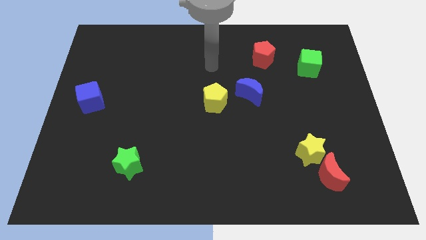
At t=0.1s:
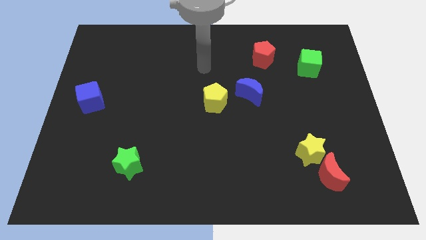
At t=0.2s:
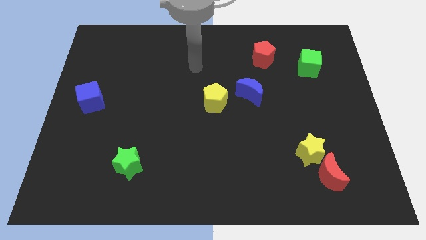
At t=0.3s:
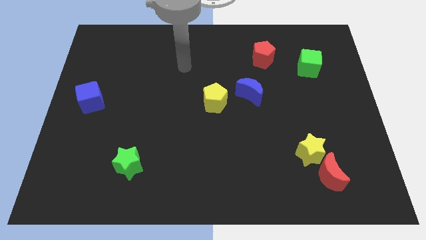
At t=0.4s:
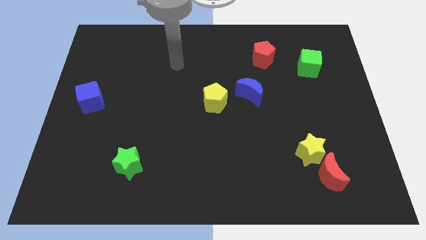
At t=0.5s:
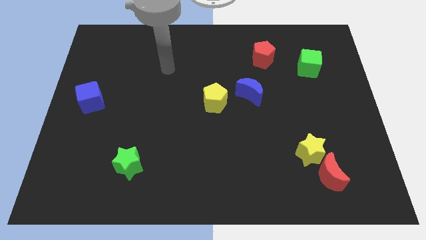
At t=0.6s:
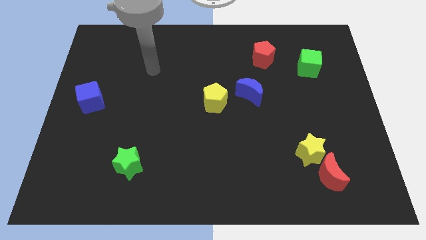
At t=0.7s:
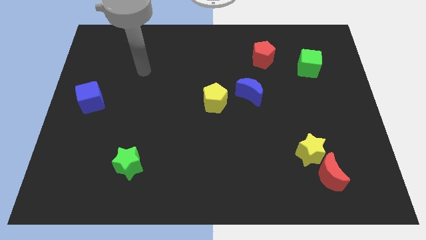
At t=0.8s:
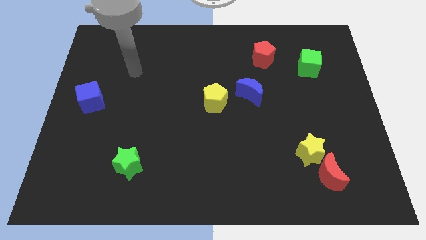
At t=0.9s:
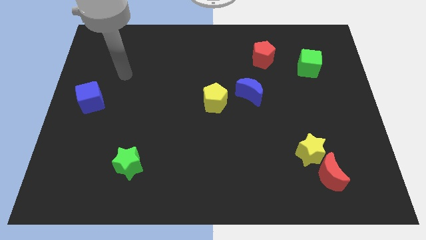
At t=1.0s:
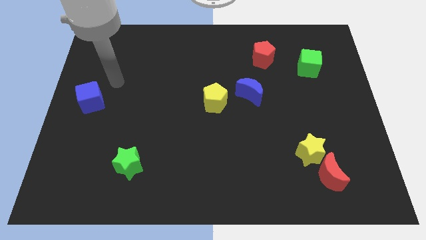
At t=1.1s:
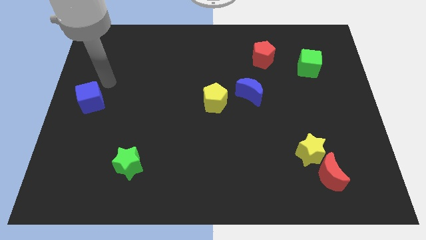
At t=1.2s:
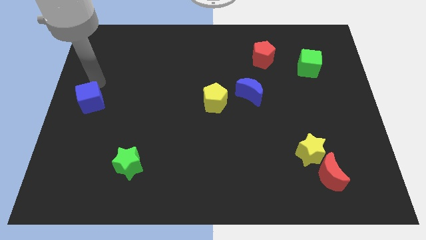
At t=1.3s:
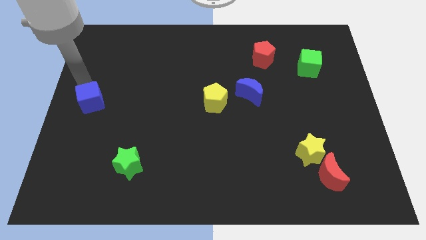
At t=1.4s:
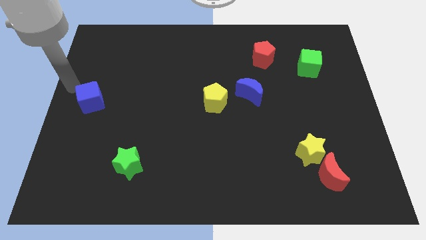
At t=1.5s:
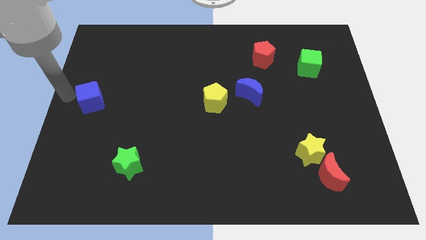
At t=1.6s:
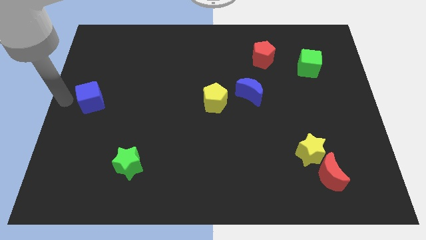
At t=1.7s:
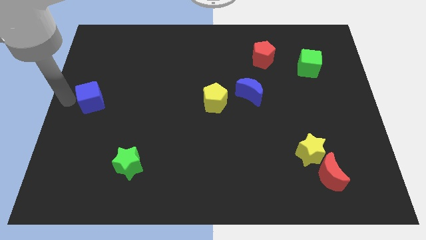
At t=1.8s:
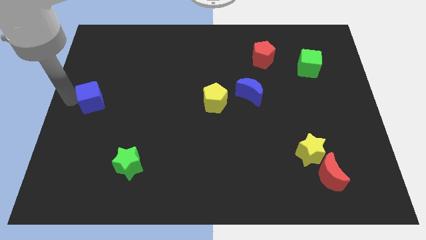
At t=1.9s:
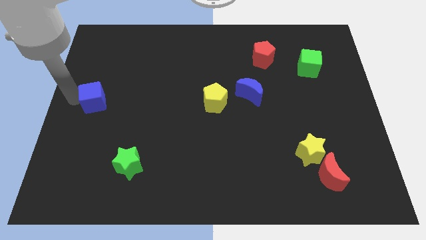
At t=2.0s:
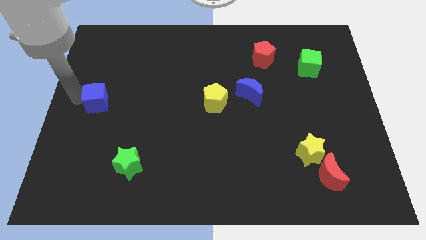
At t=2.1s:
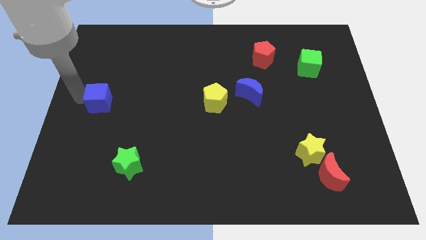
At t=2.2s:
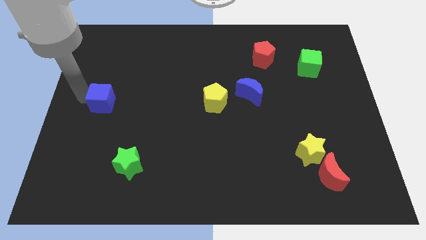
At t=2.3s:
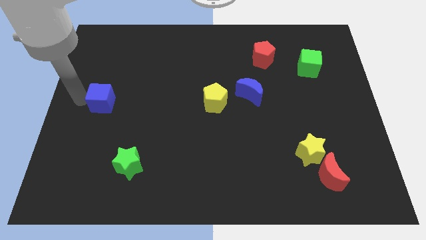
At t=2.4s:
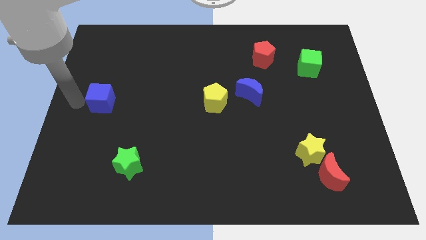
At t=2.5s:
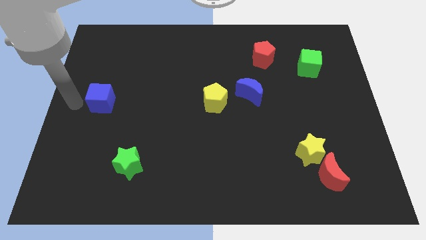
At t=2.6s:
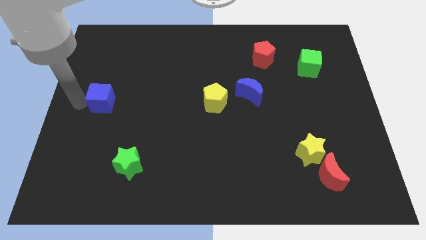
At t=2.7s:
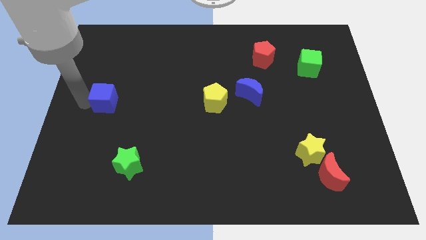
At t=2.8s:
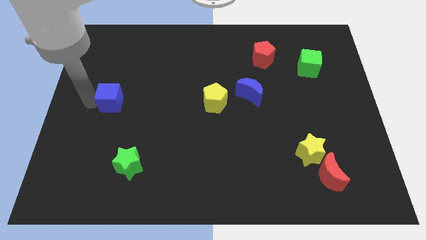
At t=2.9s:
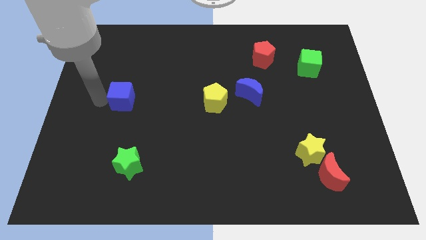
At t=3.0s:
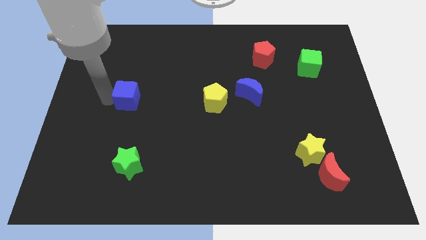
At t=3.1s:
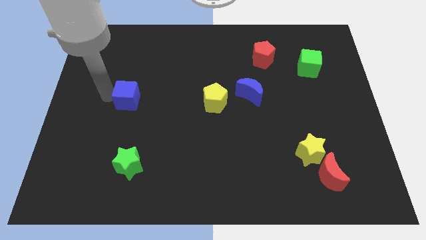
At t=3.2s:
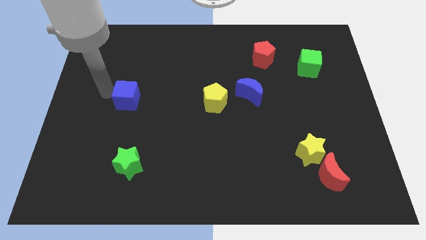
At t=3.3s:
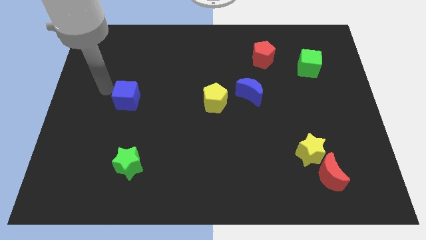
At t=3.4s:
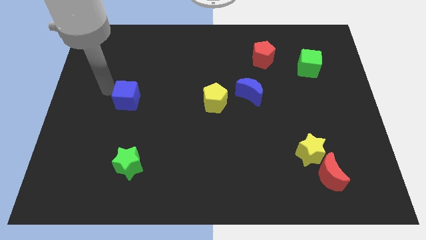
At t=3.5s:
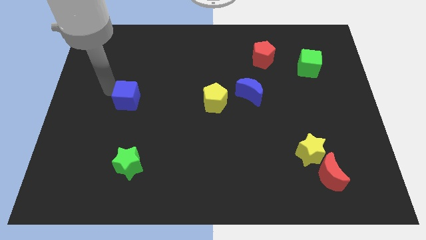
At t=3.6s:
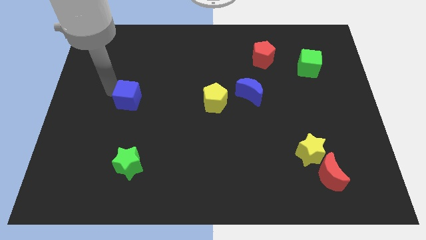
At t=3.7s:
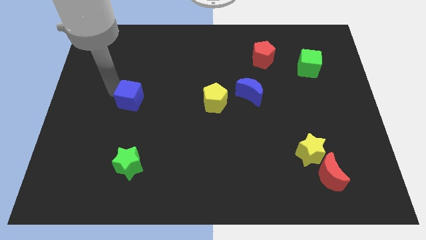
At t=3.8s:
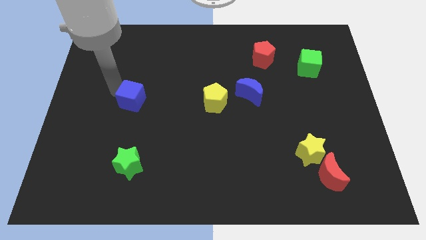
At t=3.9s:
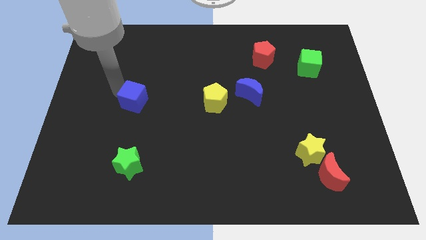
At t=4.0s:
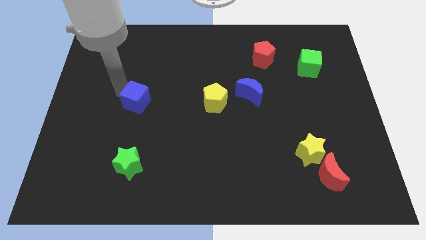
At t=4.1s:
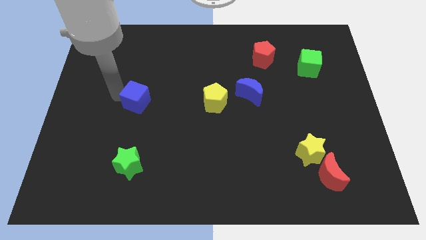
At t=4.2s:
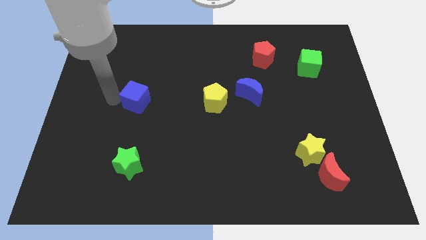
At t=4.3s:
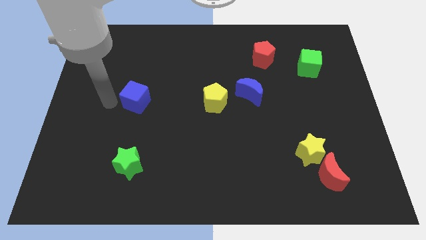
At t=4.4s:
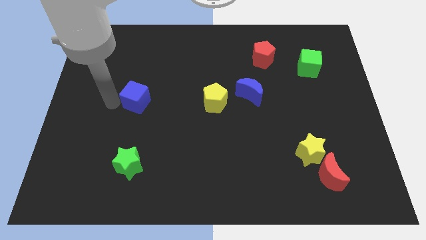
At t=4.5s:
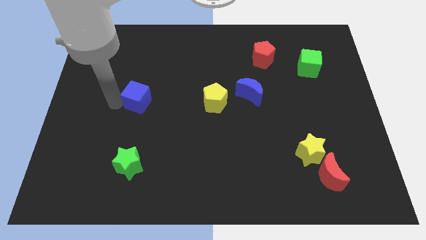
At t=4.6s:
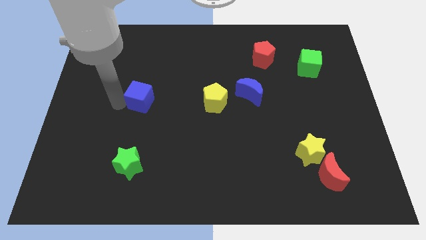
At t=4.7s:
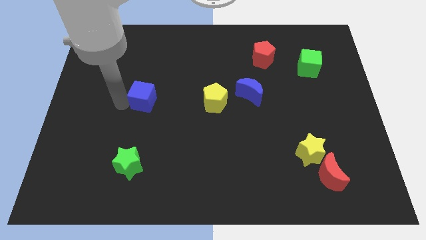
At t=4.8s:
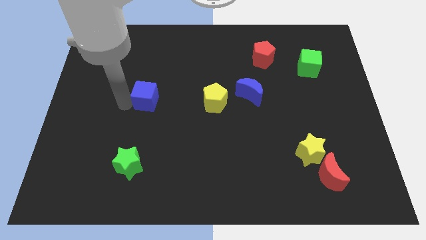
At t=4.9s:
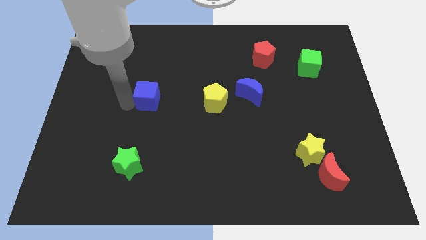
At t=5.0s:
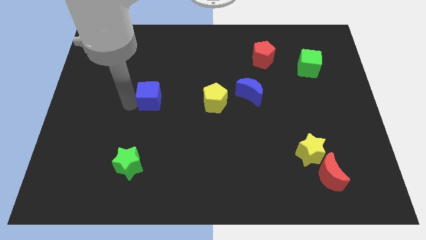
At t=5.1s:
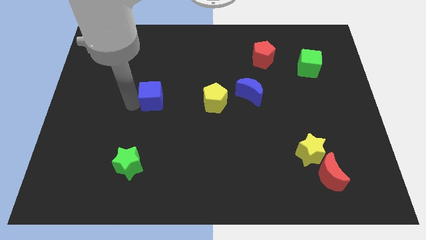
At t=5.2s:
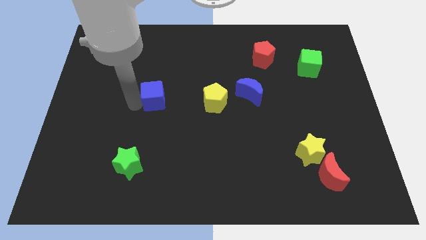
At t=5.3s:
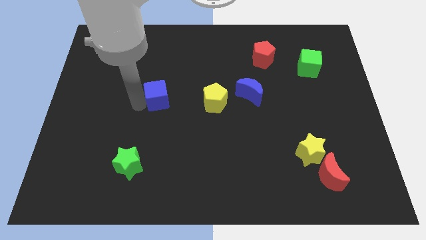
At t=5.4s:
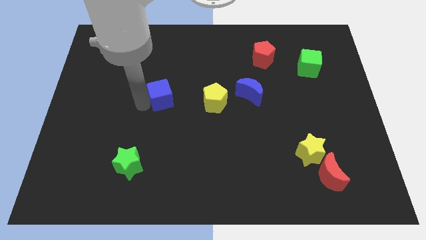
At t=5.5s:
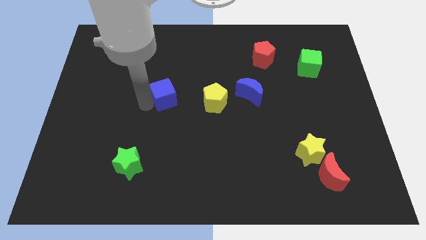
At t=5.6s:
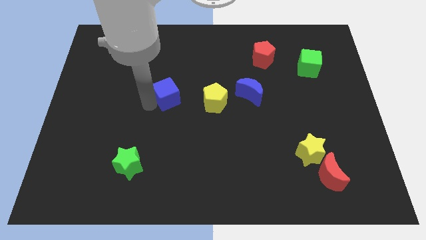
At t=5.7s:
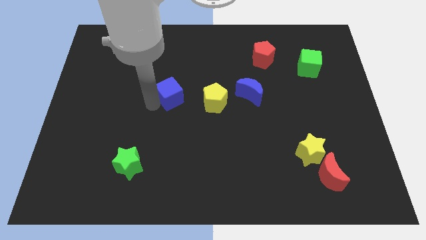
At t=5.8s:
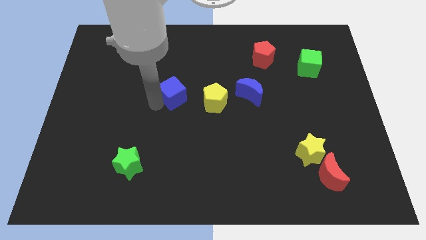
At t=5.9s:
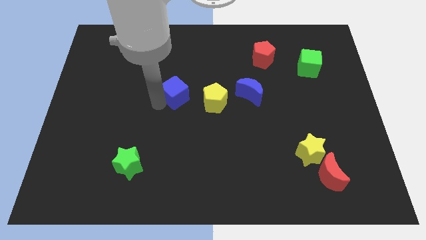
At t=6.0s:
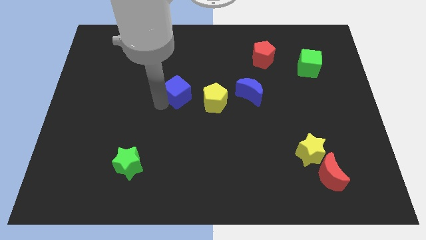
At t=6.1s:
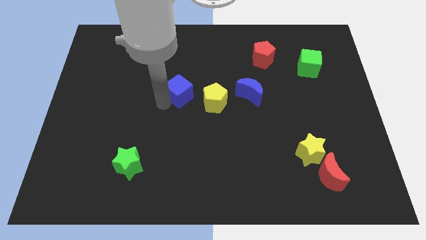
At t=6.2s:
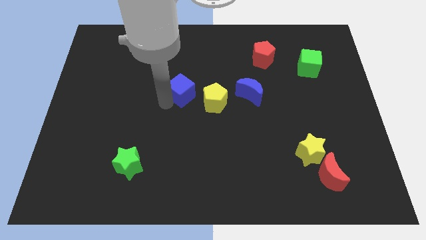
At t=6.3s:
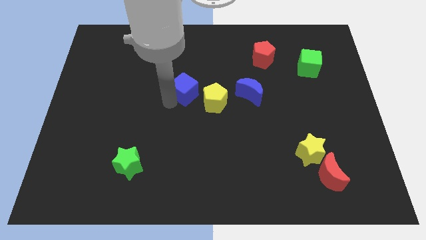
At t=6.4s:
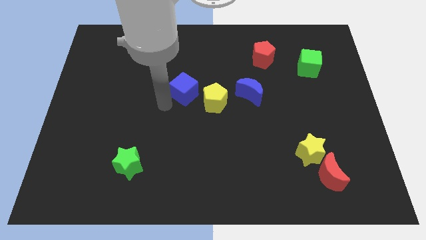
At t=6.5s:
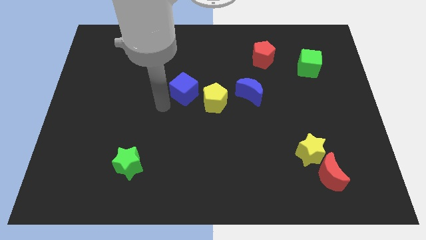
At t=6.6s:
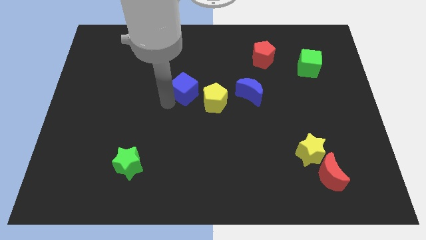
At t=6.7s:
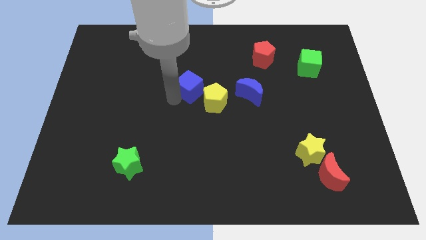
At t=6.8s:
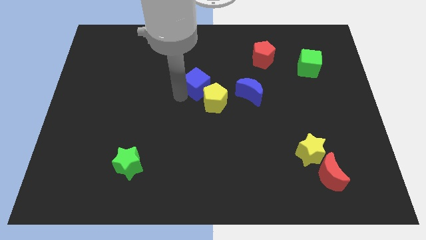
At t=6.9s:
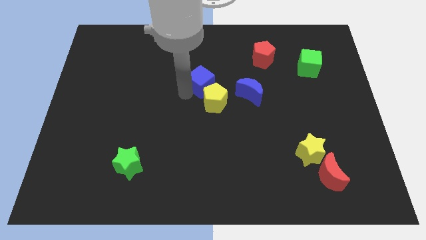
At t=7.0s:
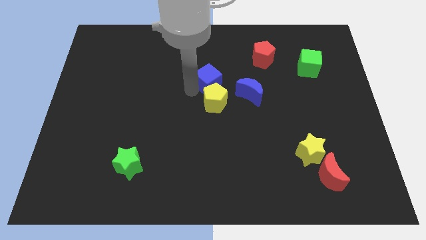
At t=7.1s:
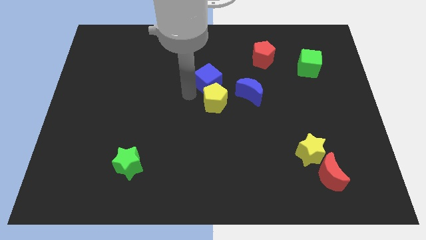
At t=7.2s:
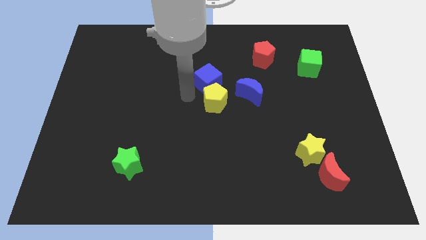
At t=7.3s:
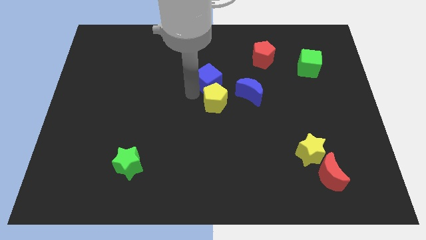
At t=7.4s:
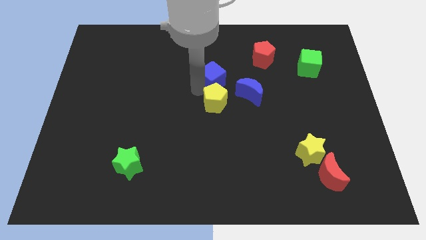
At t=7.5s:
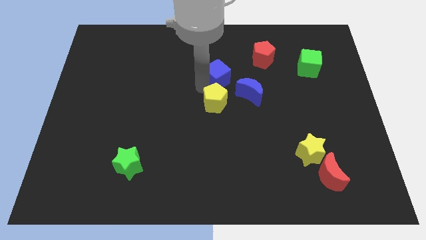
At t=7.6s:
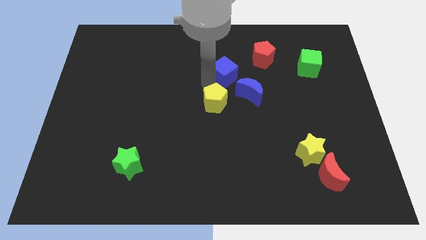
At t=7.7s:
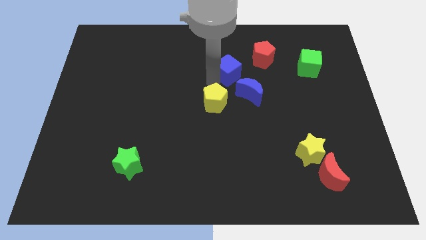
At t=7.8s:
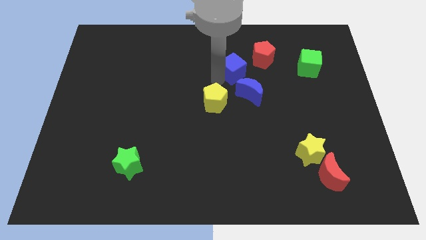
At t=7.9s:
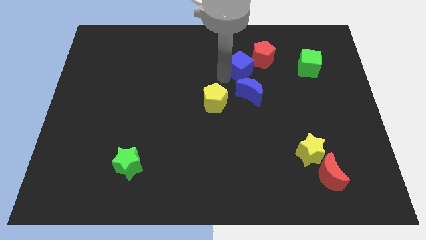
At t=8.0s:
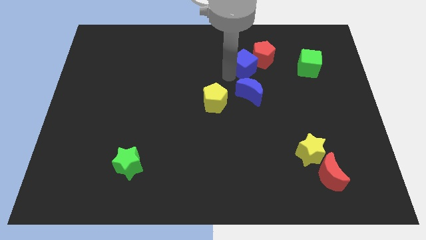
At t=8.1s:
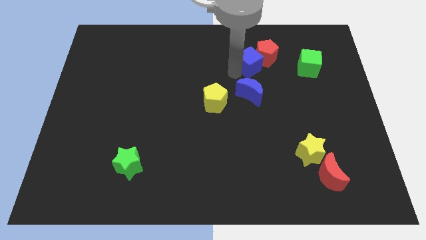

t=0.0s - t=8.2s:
move the blue cube close to the red pentagon
